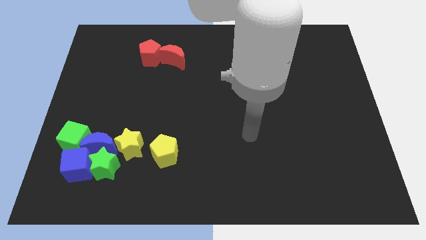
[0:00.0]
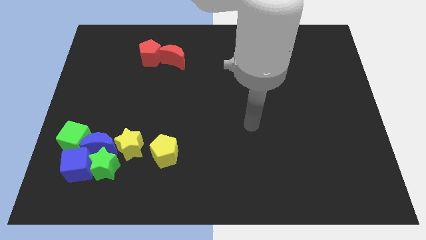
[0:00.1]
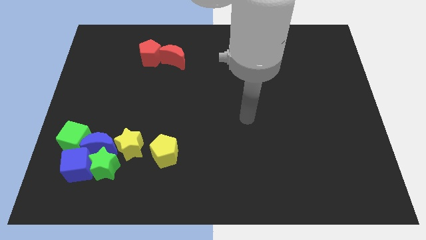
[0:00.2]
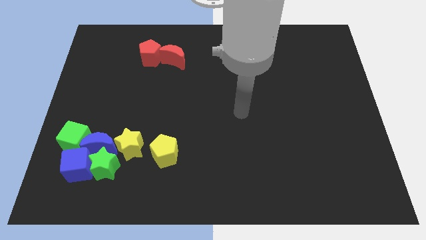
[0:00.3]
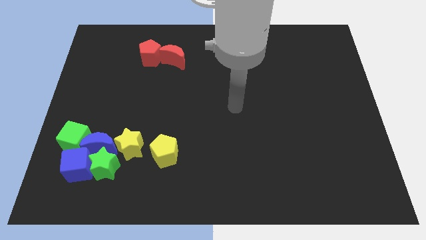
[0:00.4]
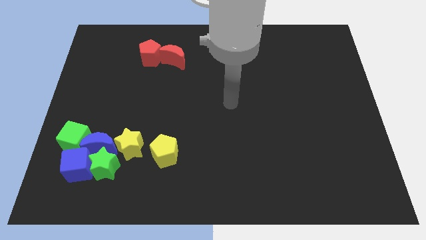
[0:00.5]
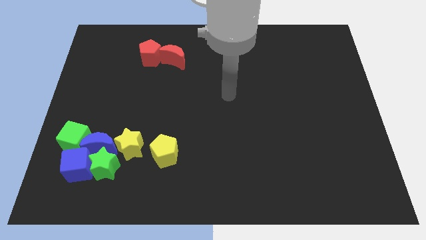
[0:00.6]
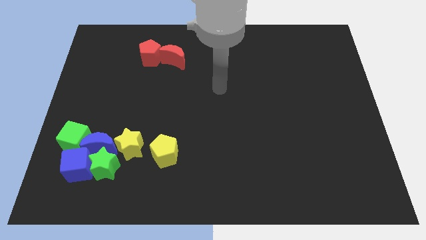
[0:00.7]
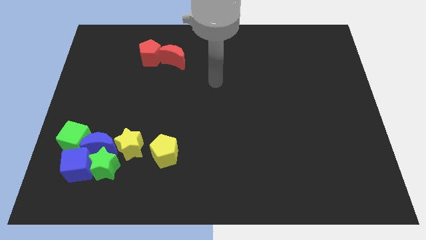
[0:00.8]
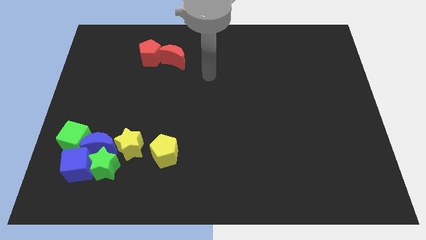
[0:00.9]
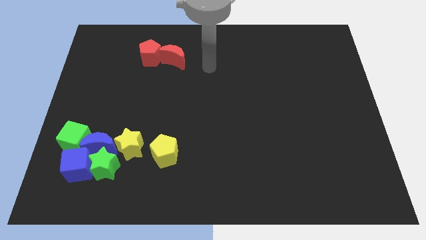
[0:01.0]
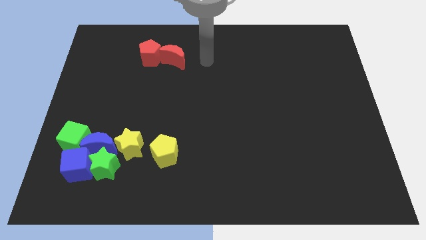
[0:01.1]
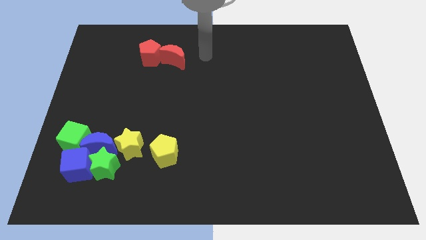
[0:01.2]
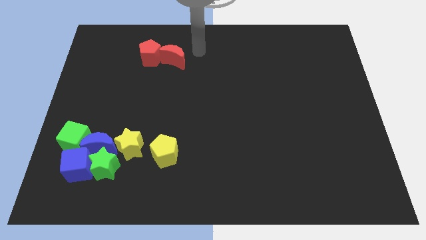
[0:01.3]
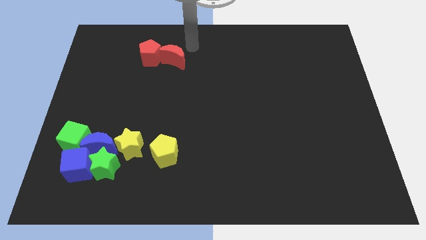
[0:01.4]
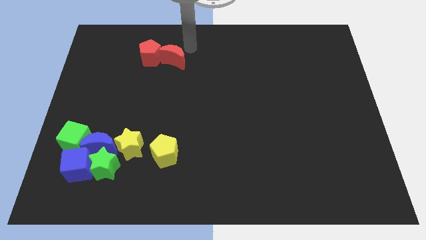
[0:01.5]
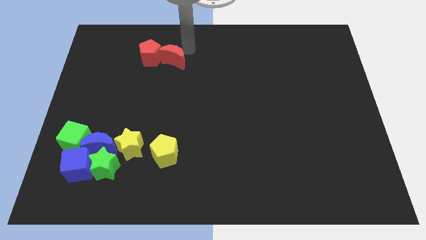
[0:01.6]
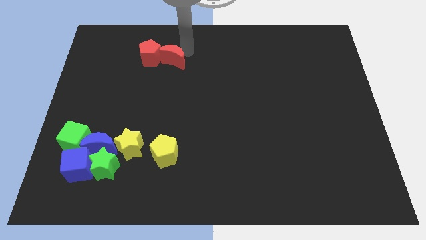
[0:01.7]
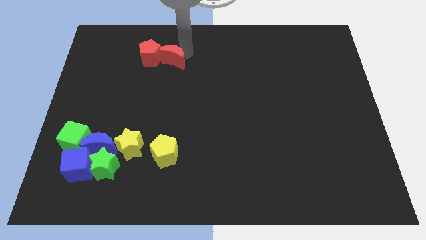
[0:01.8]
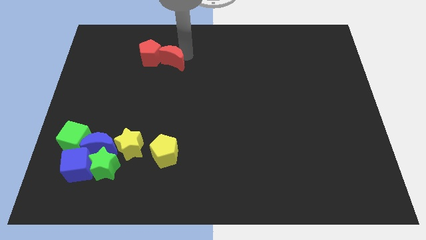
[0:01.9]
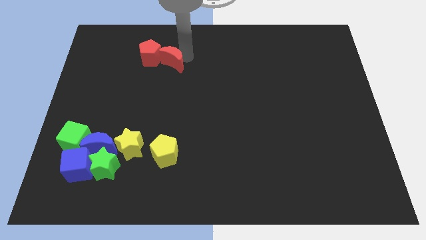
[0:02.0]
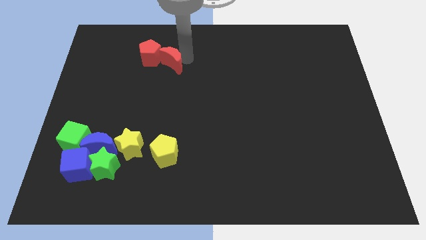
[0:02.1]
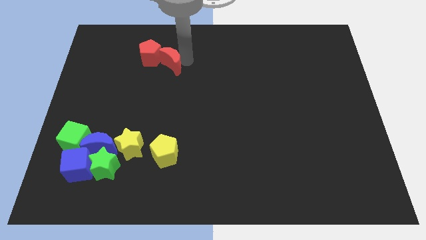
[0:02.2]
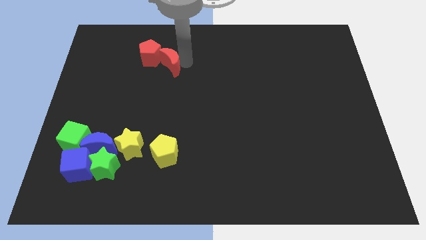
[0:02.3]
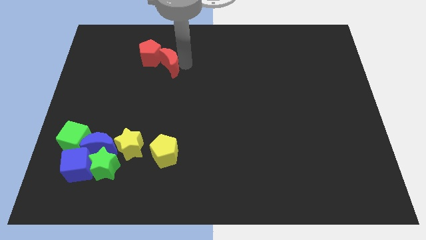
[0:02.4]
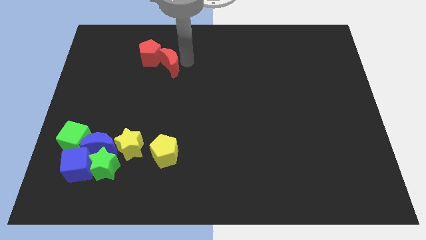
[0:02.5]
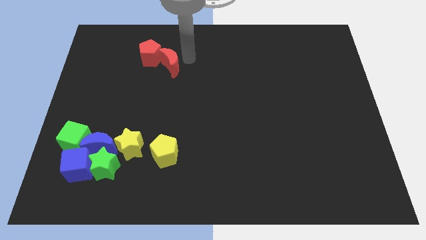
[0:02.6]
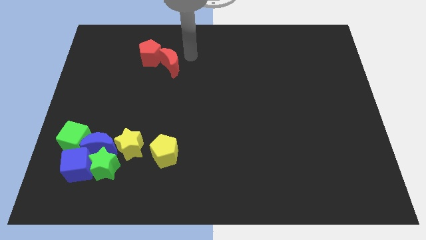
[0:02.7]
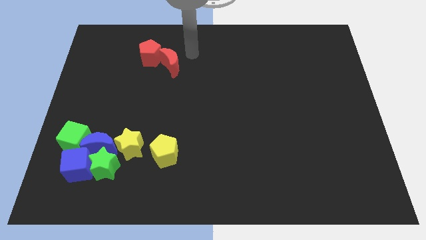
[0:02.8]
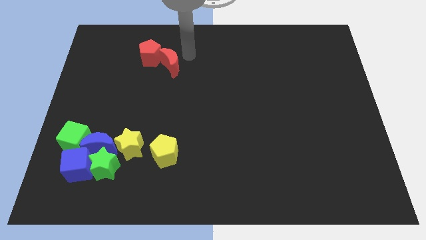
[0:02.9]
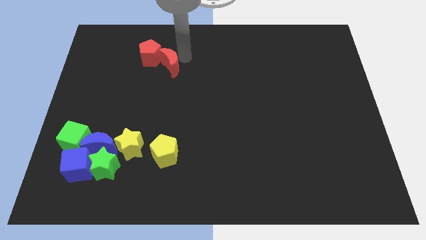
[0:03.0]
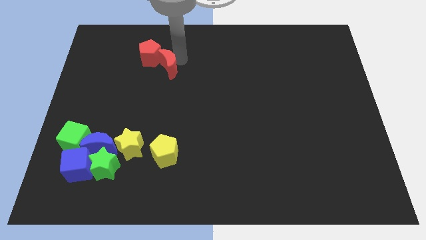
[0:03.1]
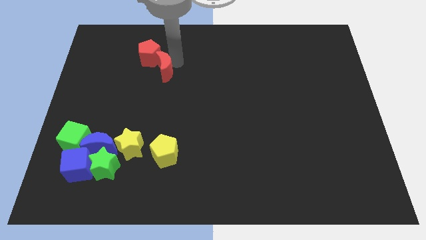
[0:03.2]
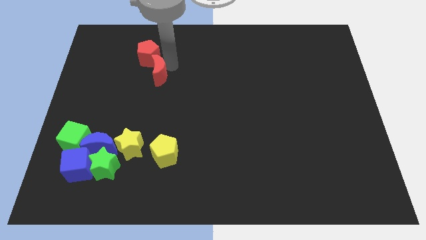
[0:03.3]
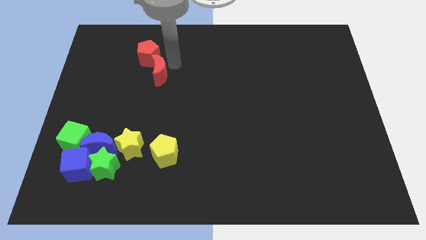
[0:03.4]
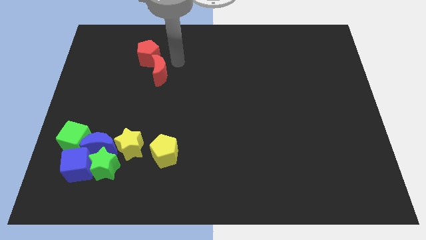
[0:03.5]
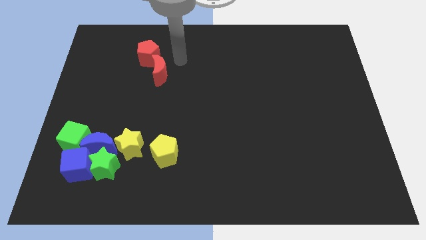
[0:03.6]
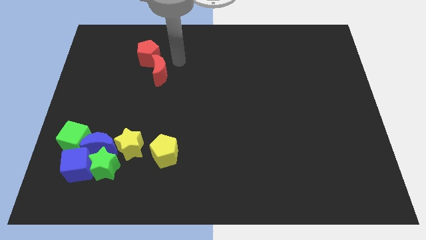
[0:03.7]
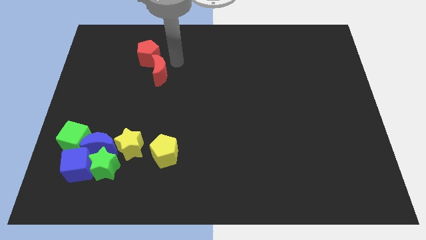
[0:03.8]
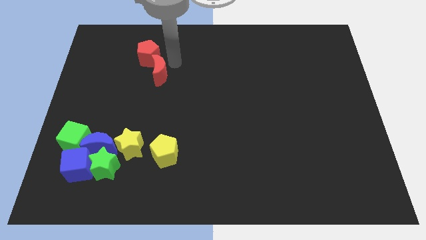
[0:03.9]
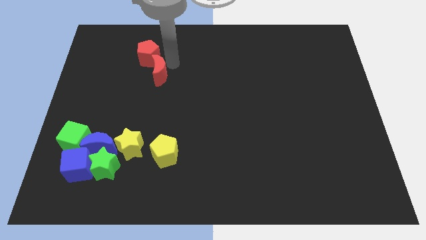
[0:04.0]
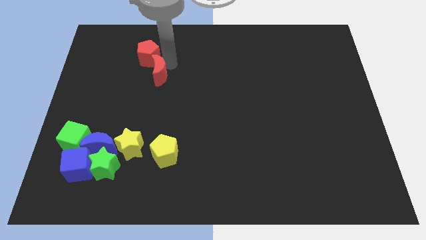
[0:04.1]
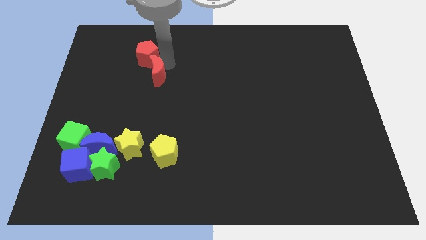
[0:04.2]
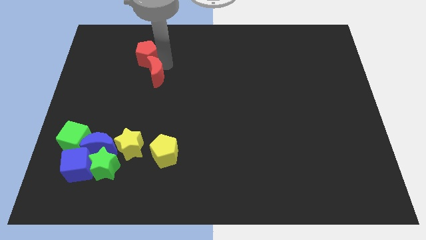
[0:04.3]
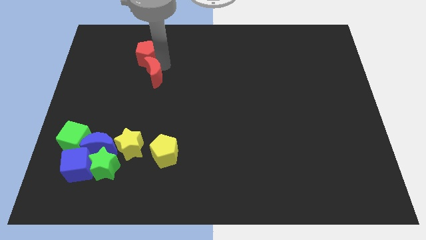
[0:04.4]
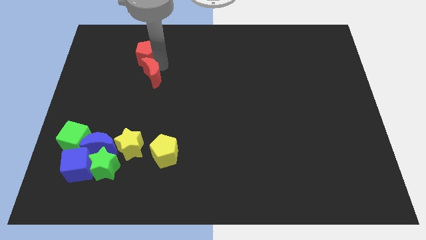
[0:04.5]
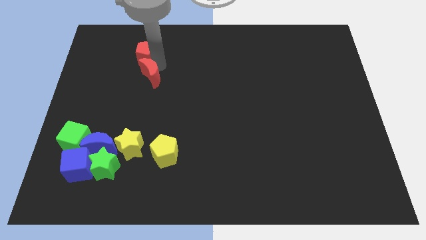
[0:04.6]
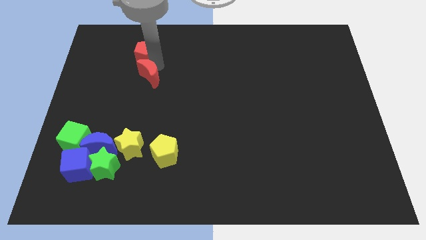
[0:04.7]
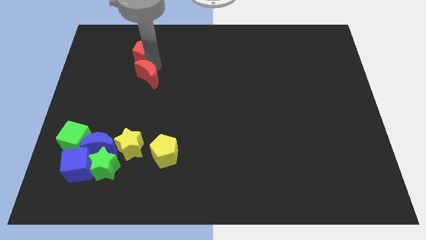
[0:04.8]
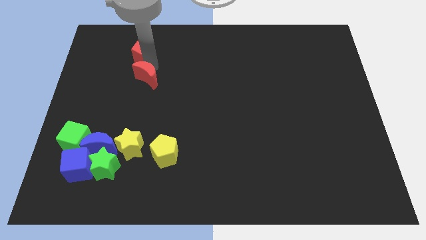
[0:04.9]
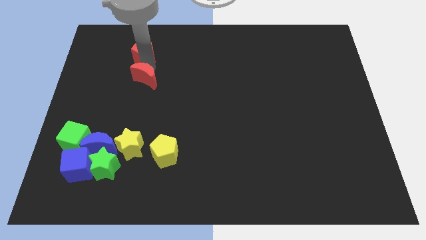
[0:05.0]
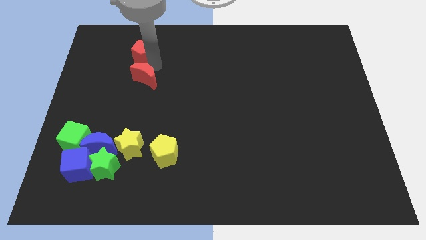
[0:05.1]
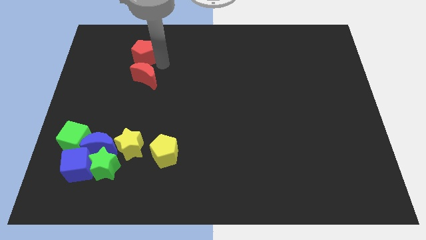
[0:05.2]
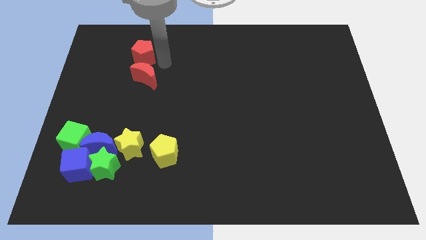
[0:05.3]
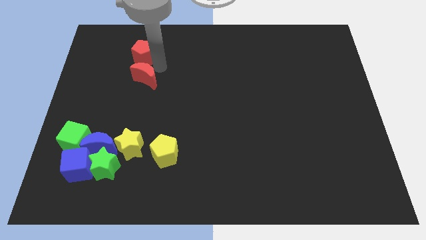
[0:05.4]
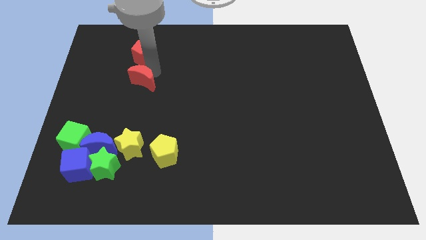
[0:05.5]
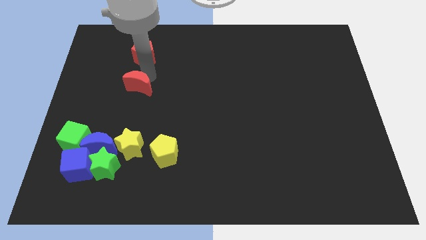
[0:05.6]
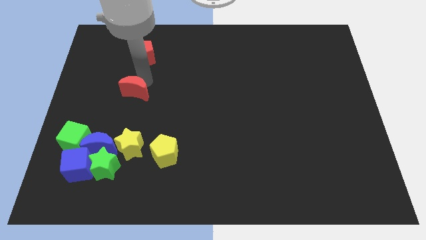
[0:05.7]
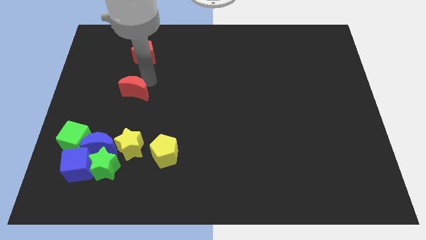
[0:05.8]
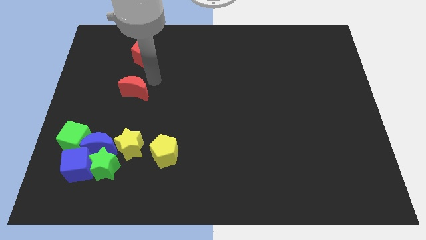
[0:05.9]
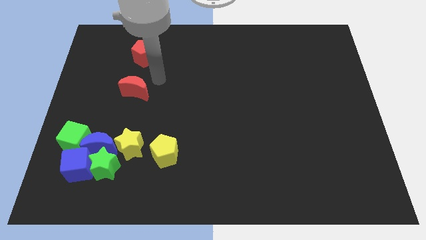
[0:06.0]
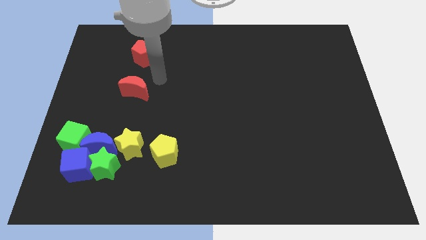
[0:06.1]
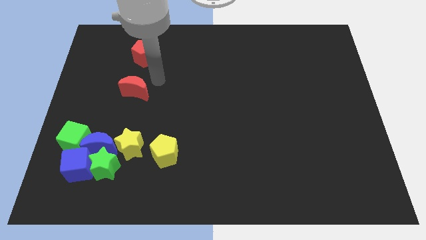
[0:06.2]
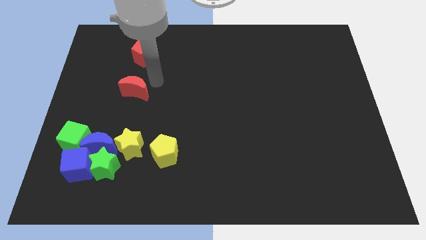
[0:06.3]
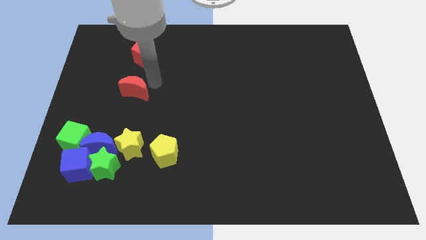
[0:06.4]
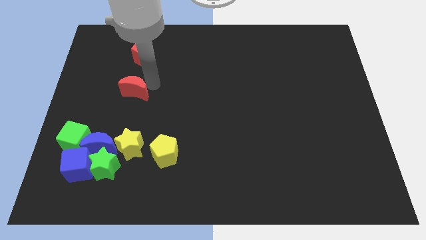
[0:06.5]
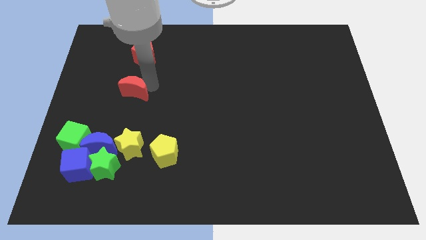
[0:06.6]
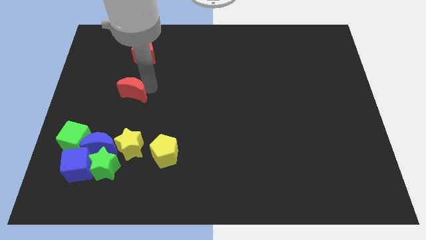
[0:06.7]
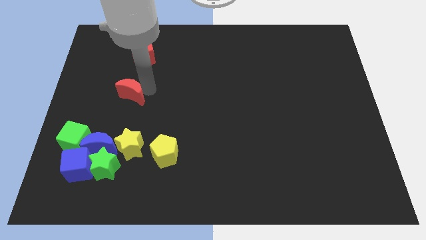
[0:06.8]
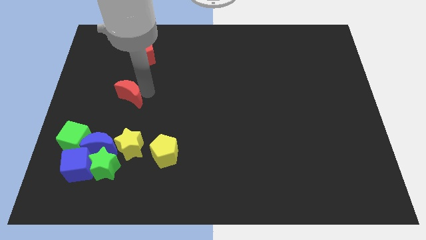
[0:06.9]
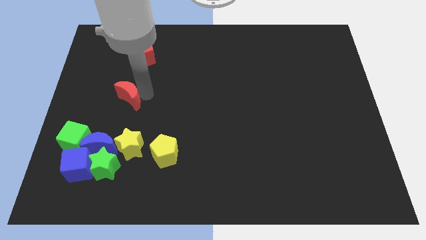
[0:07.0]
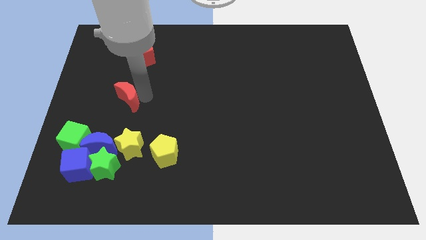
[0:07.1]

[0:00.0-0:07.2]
put the red moon to the top of the blue moon
